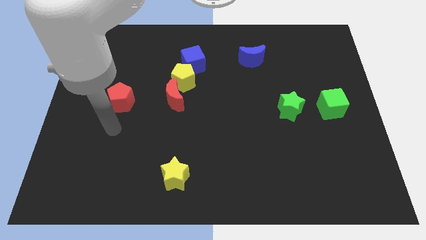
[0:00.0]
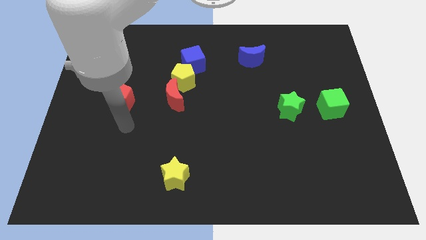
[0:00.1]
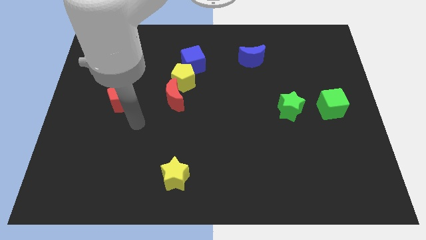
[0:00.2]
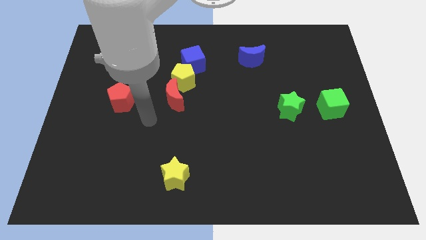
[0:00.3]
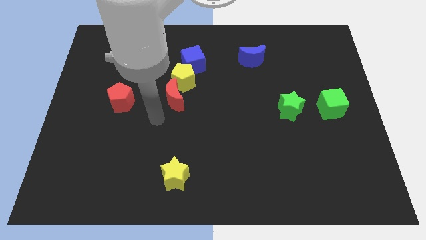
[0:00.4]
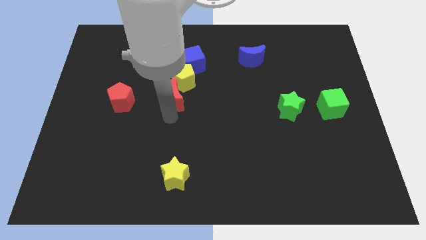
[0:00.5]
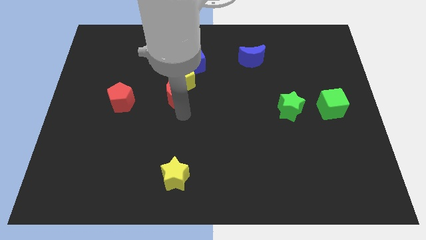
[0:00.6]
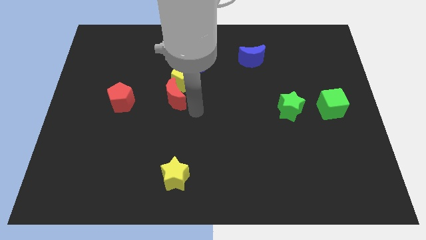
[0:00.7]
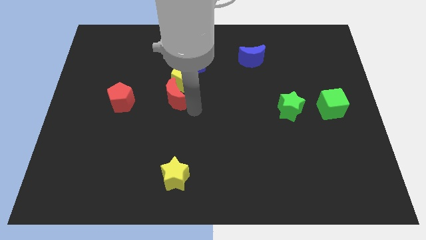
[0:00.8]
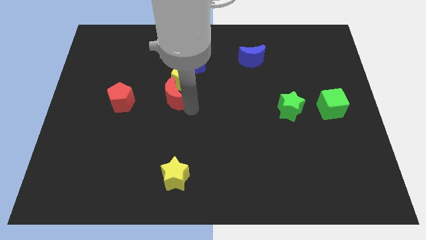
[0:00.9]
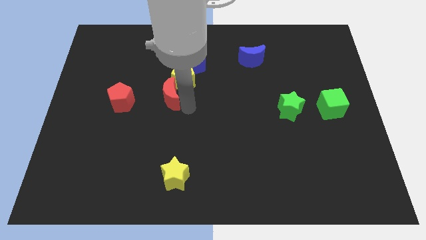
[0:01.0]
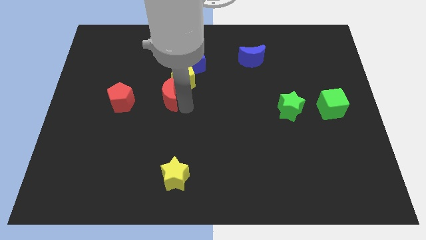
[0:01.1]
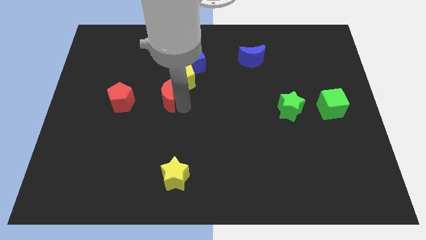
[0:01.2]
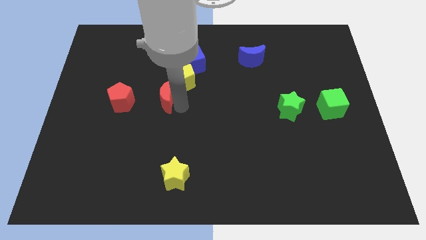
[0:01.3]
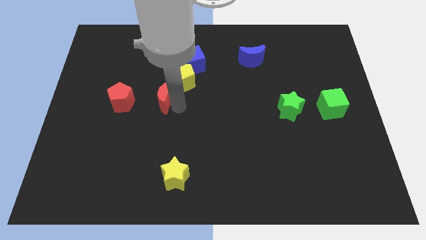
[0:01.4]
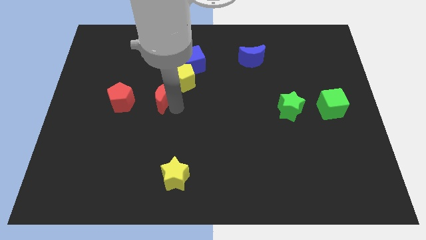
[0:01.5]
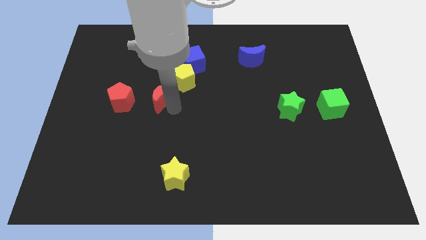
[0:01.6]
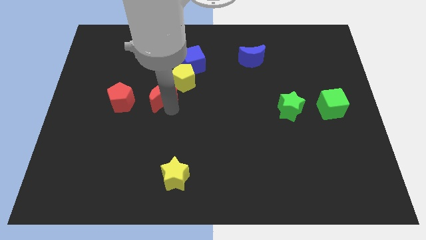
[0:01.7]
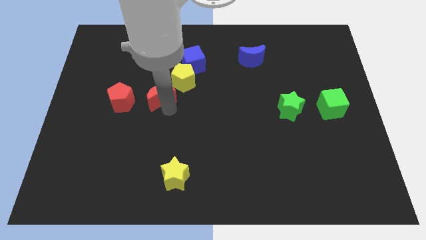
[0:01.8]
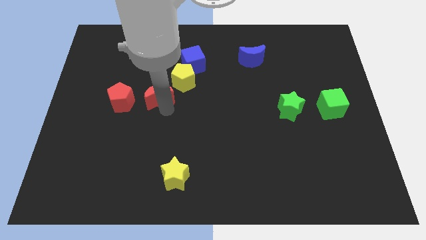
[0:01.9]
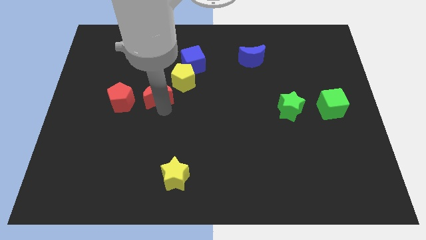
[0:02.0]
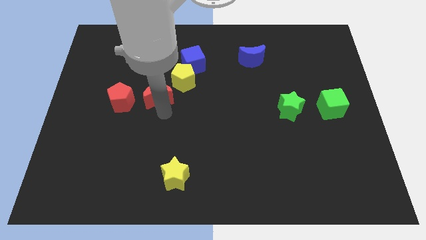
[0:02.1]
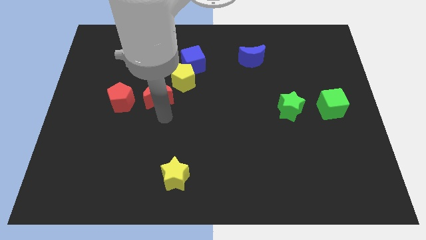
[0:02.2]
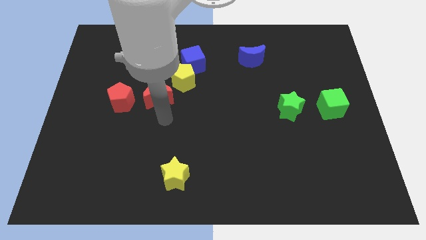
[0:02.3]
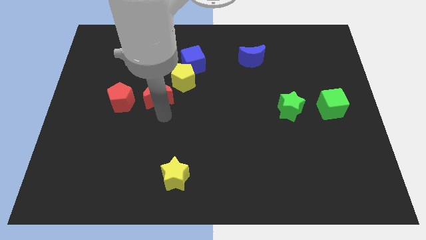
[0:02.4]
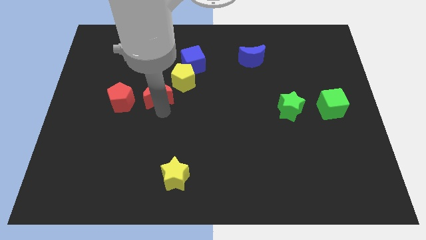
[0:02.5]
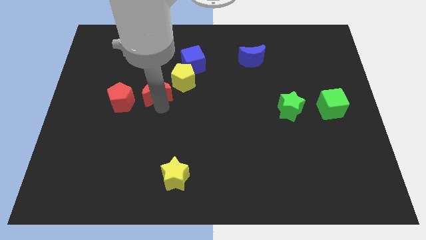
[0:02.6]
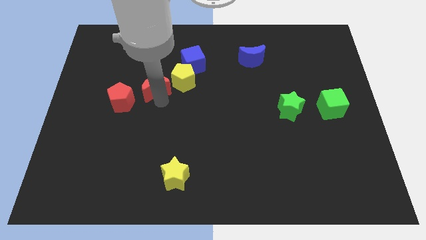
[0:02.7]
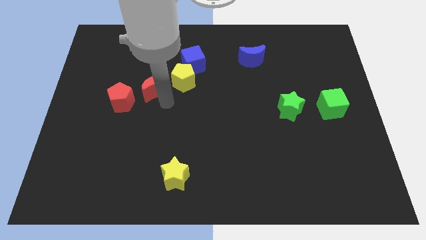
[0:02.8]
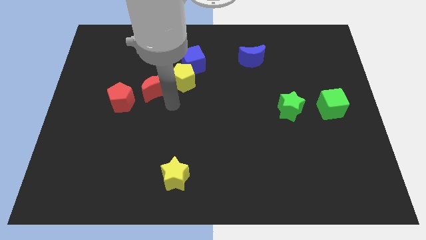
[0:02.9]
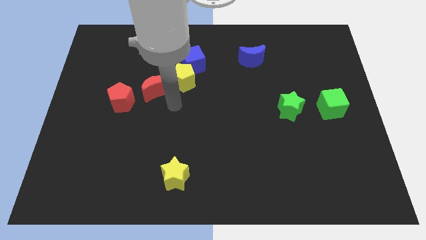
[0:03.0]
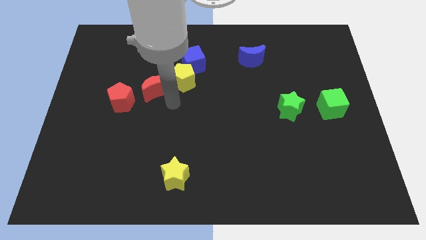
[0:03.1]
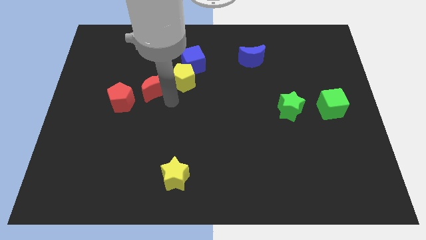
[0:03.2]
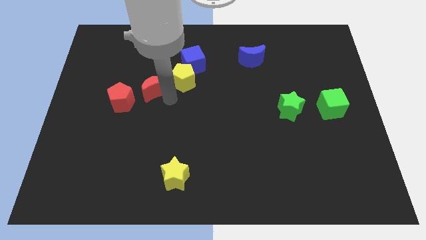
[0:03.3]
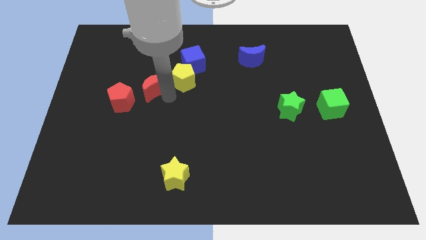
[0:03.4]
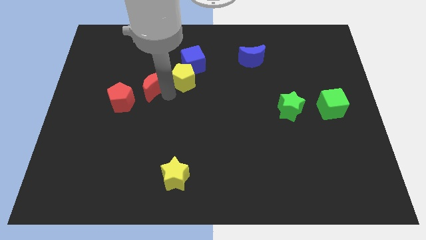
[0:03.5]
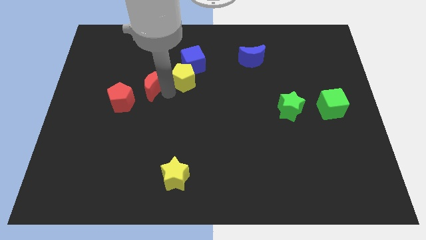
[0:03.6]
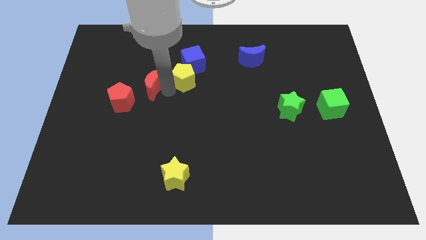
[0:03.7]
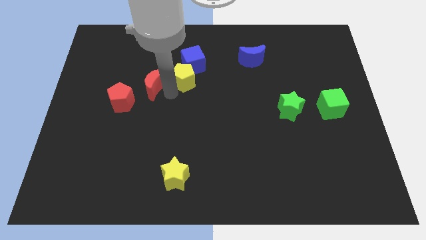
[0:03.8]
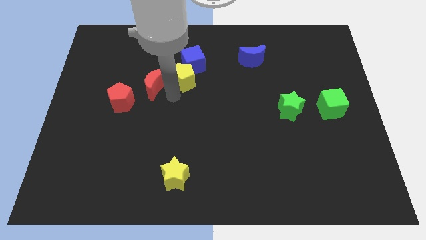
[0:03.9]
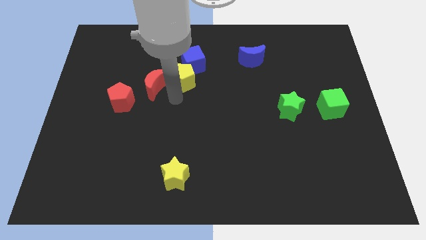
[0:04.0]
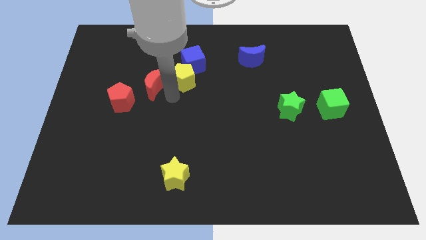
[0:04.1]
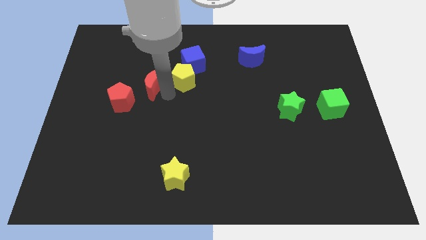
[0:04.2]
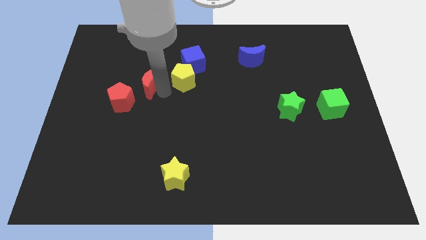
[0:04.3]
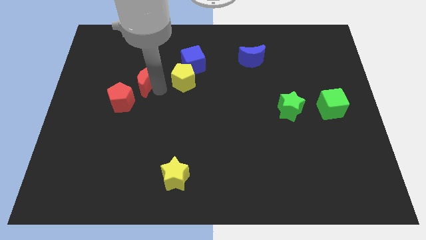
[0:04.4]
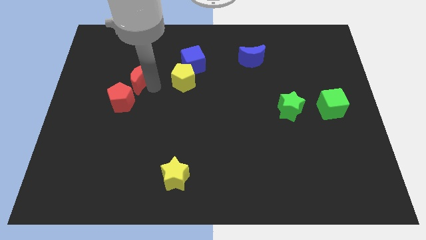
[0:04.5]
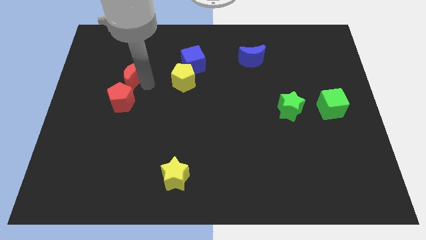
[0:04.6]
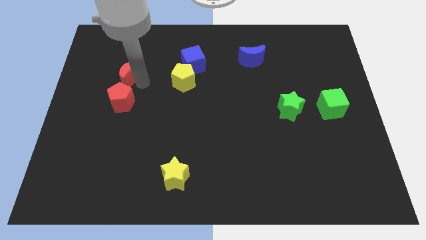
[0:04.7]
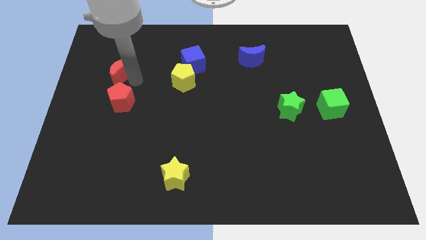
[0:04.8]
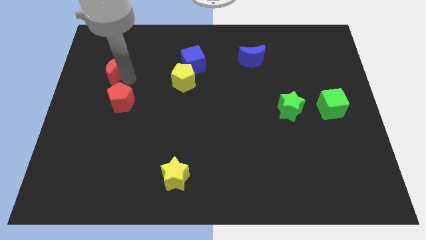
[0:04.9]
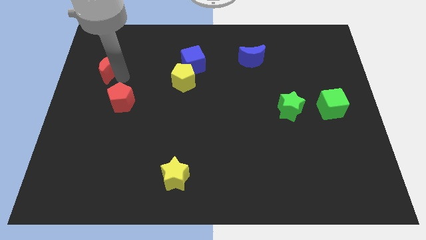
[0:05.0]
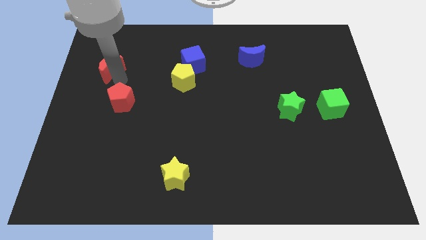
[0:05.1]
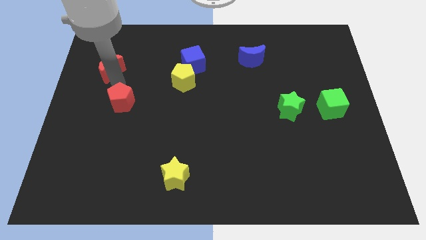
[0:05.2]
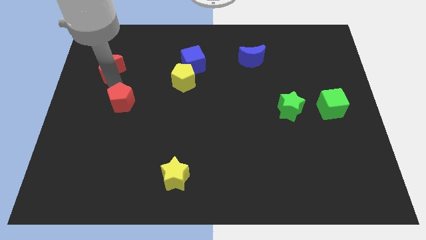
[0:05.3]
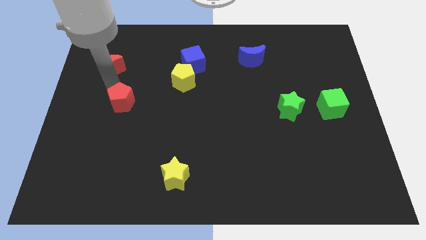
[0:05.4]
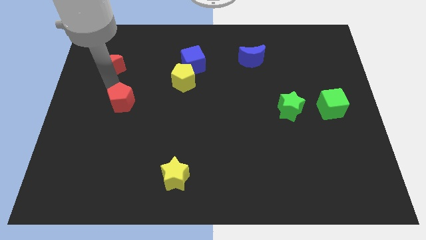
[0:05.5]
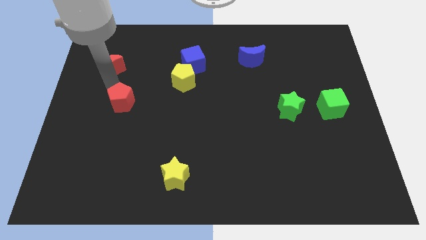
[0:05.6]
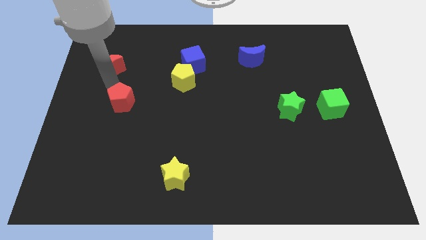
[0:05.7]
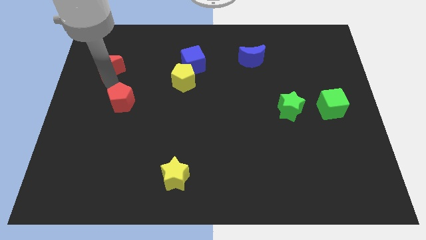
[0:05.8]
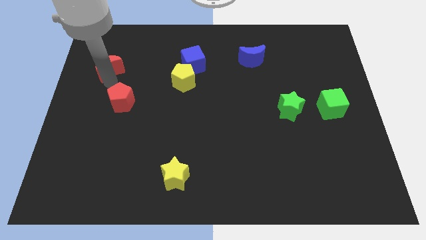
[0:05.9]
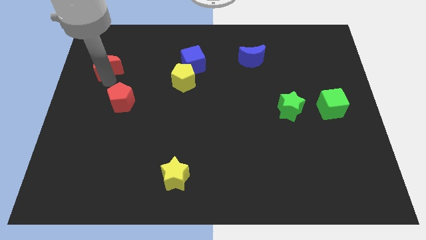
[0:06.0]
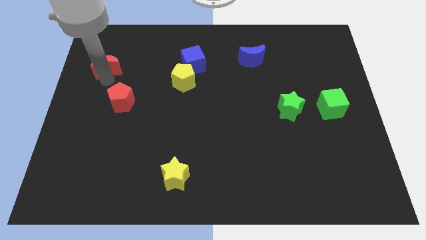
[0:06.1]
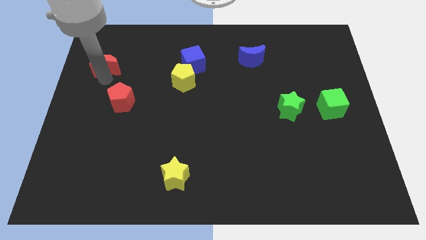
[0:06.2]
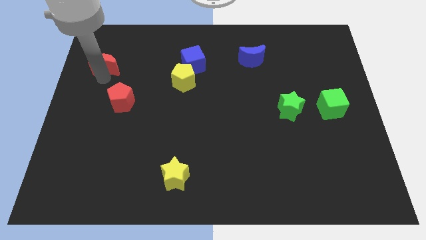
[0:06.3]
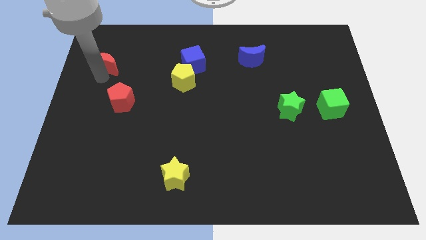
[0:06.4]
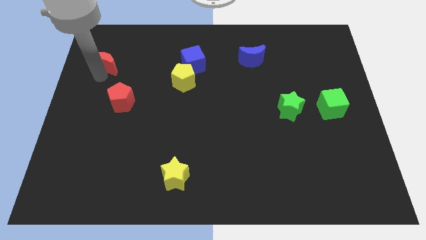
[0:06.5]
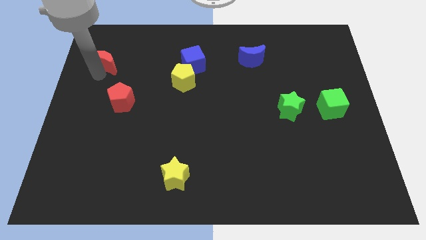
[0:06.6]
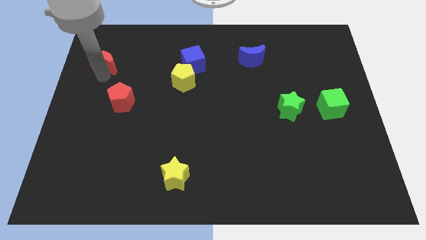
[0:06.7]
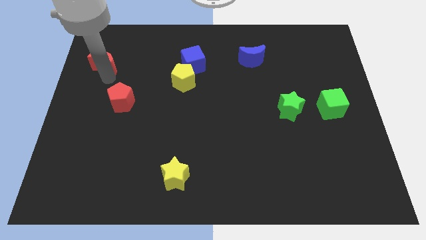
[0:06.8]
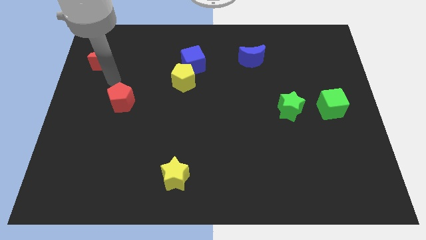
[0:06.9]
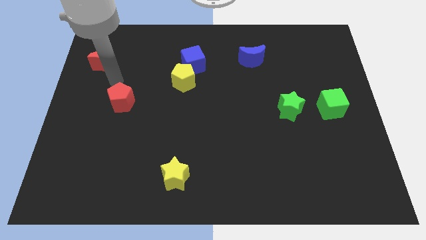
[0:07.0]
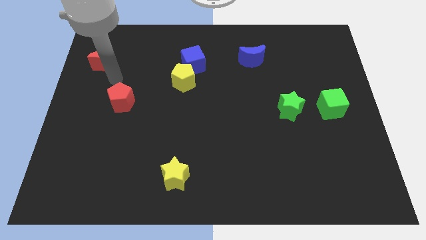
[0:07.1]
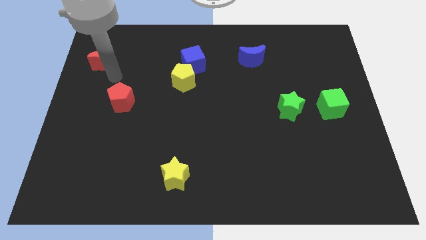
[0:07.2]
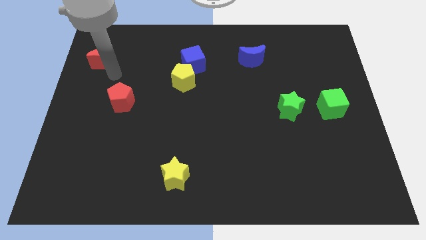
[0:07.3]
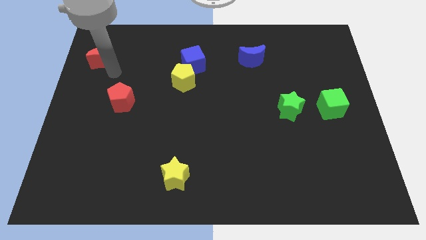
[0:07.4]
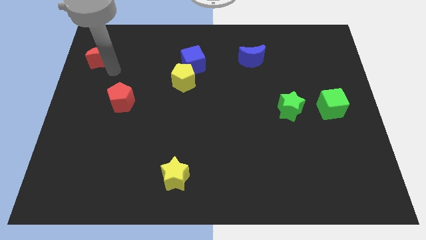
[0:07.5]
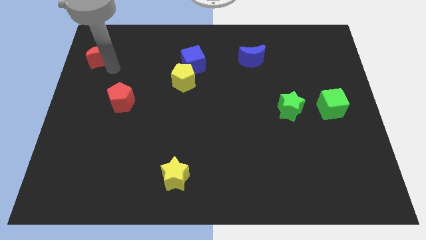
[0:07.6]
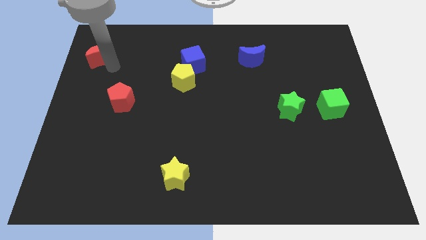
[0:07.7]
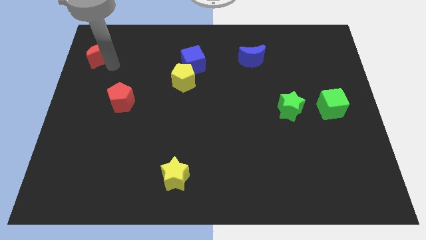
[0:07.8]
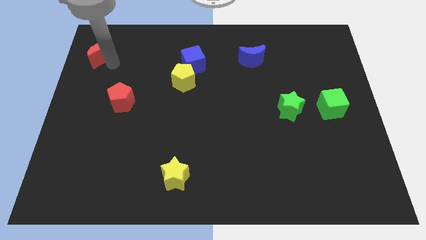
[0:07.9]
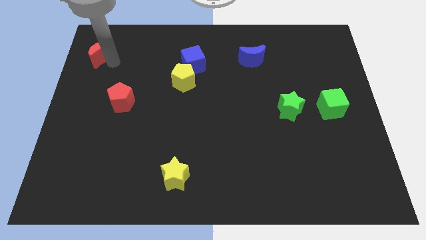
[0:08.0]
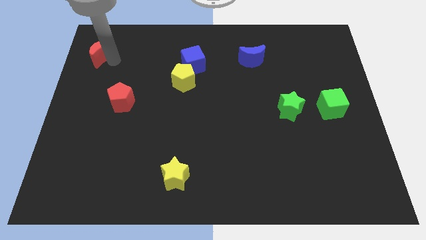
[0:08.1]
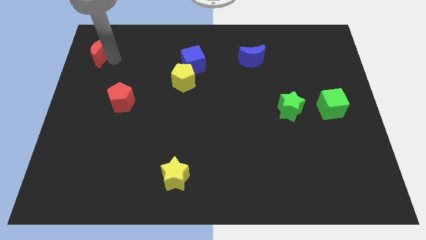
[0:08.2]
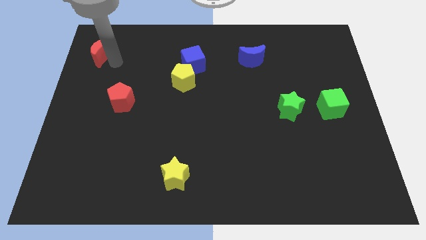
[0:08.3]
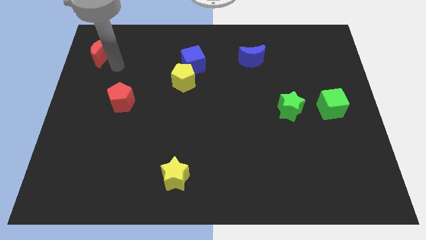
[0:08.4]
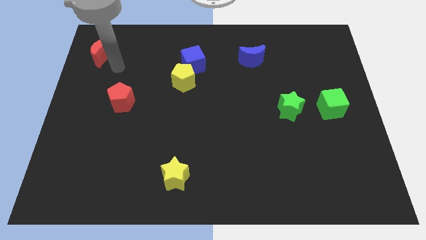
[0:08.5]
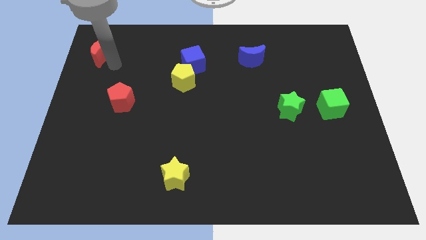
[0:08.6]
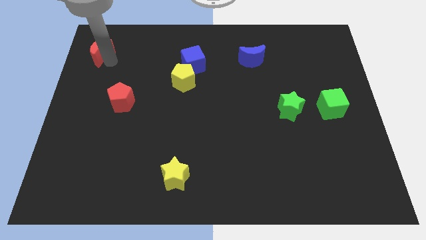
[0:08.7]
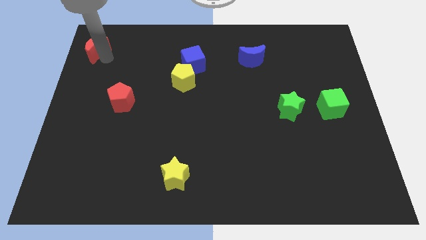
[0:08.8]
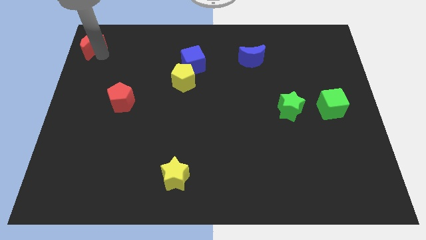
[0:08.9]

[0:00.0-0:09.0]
put the red moon to the top left of the board
